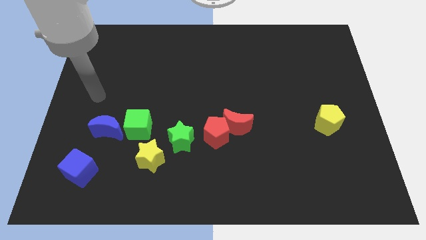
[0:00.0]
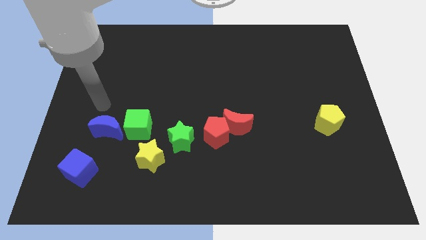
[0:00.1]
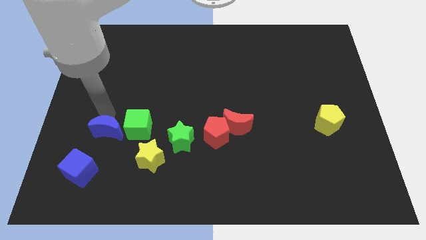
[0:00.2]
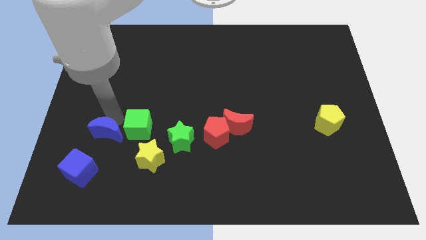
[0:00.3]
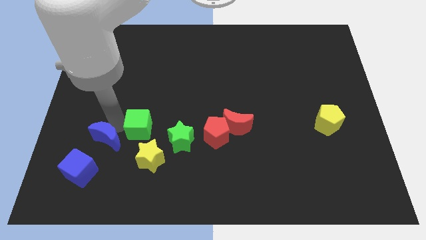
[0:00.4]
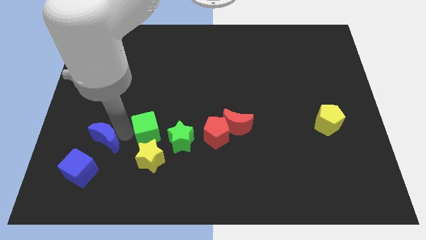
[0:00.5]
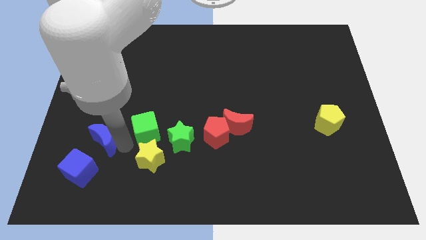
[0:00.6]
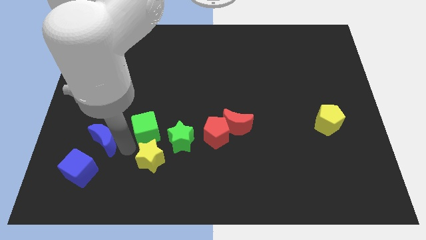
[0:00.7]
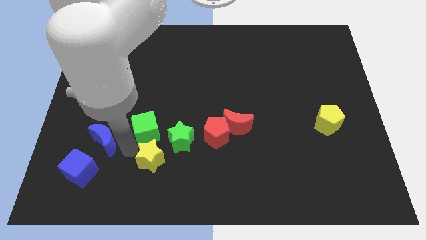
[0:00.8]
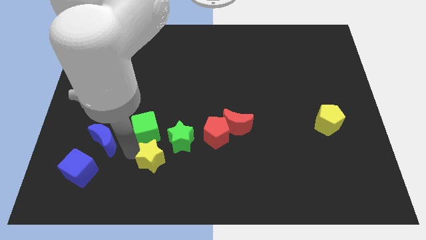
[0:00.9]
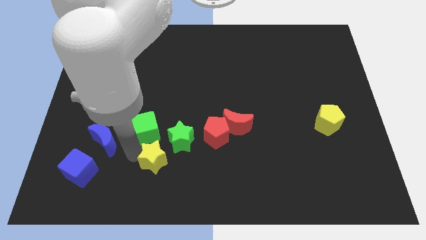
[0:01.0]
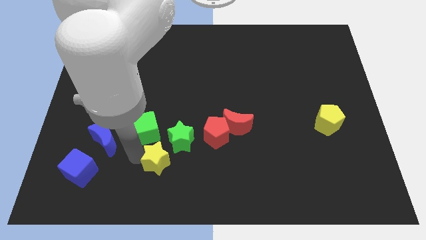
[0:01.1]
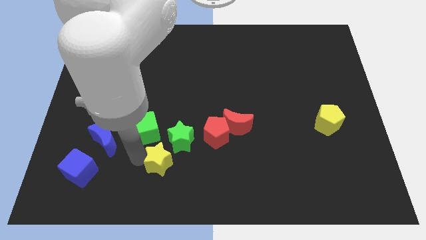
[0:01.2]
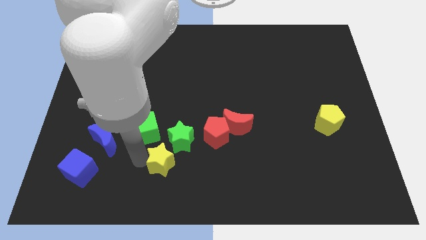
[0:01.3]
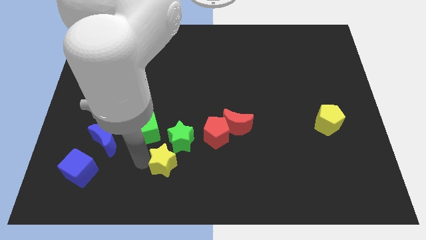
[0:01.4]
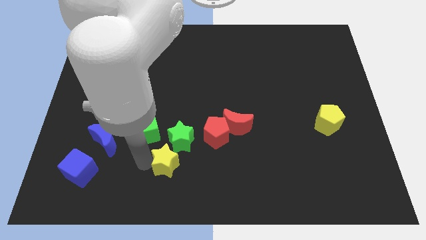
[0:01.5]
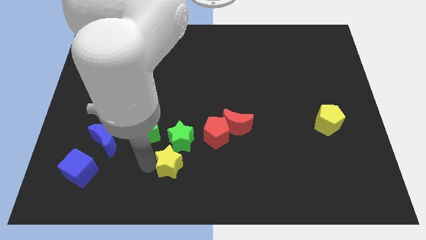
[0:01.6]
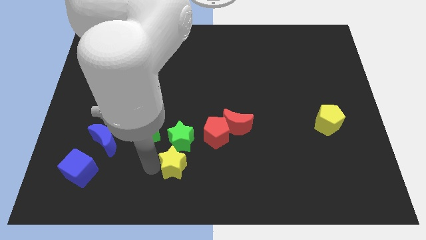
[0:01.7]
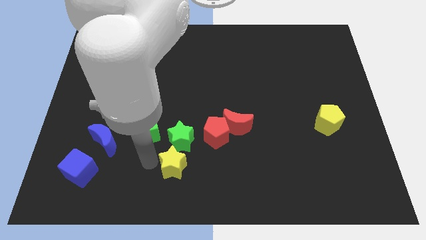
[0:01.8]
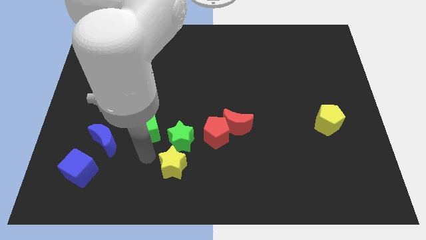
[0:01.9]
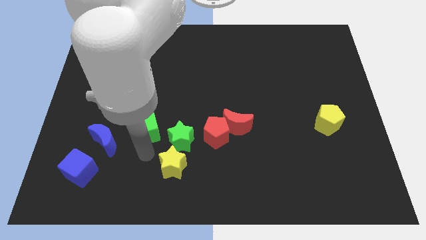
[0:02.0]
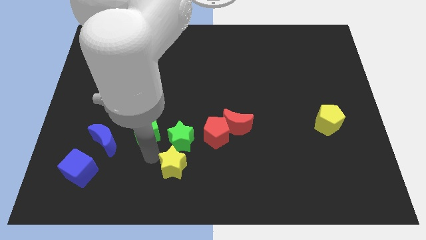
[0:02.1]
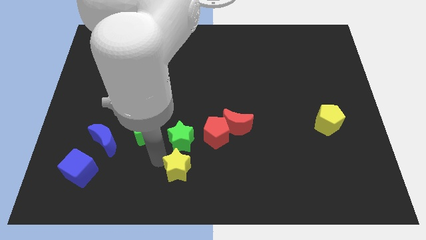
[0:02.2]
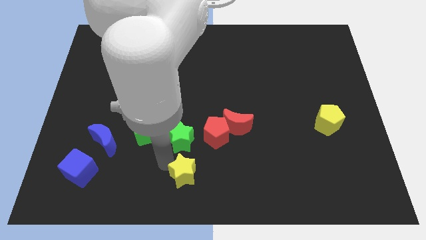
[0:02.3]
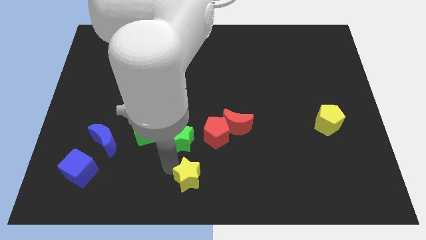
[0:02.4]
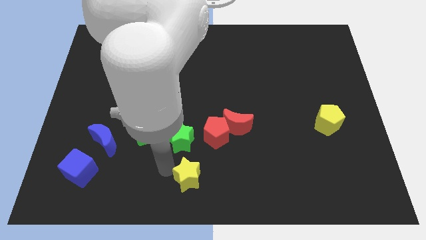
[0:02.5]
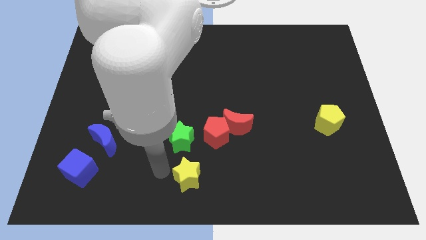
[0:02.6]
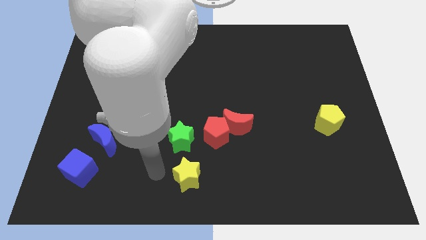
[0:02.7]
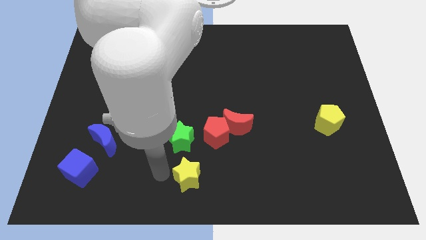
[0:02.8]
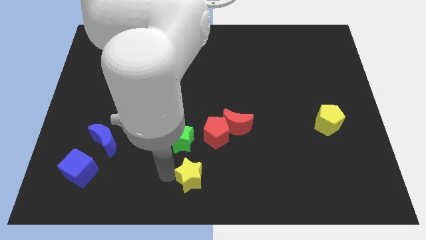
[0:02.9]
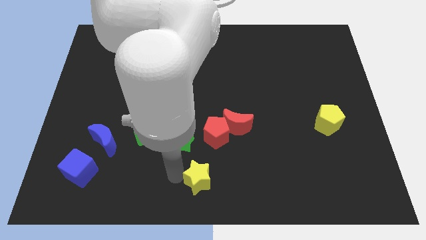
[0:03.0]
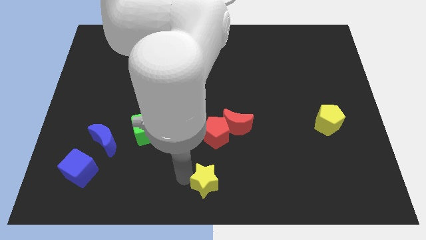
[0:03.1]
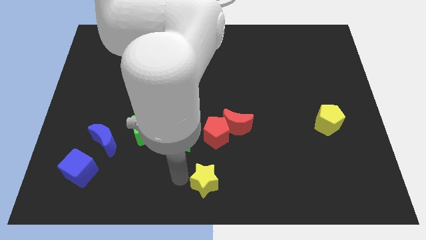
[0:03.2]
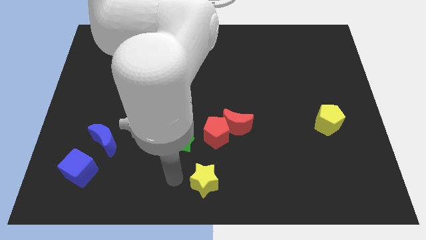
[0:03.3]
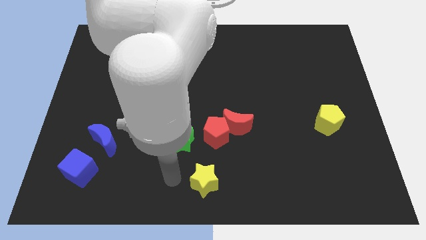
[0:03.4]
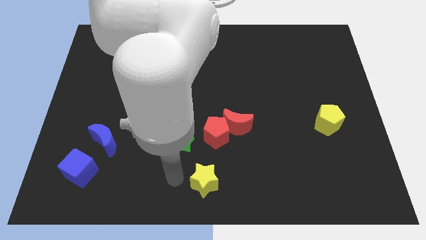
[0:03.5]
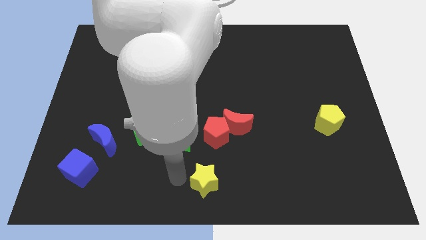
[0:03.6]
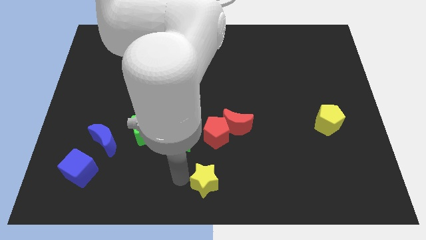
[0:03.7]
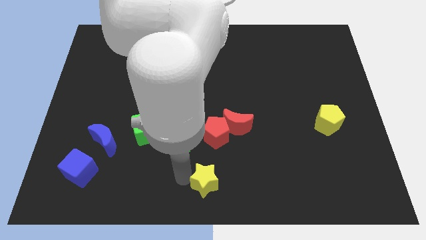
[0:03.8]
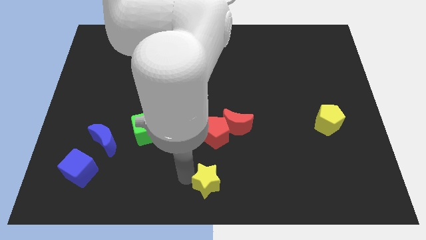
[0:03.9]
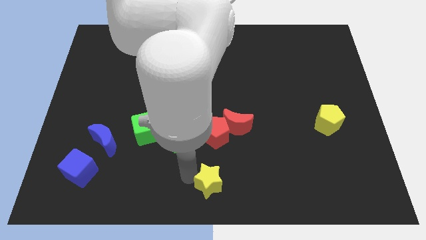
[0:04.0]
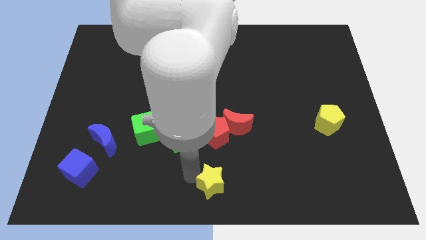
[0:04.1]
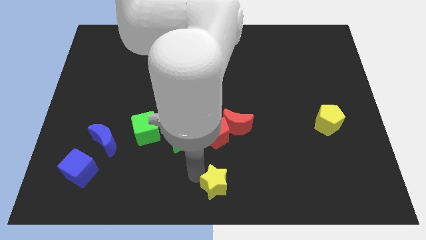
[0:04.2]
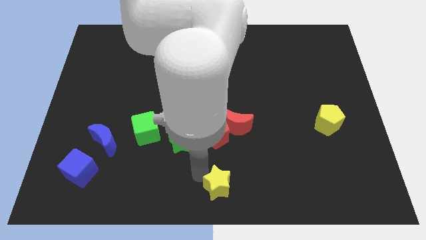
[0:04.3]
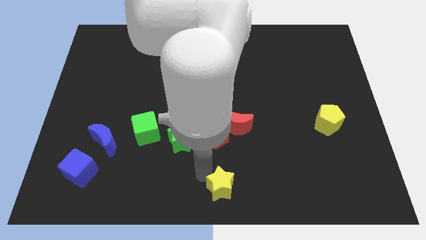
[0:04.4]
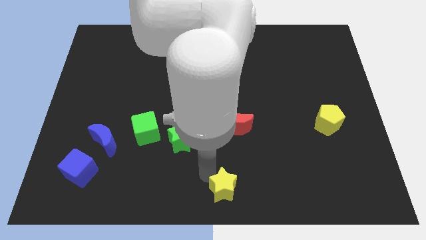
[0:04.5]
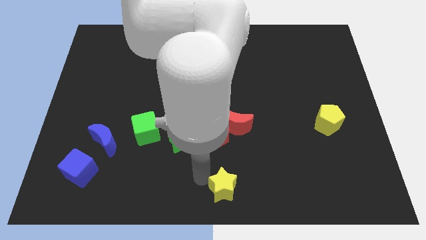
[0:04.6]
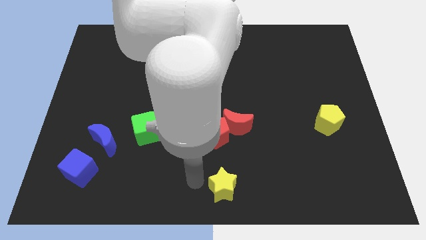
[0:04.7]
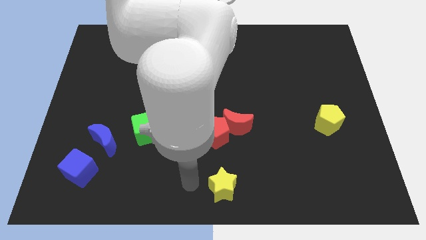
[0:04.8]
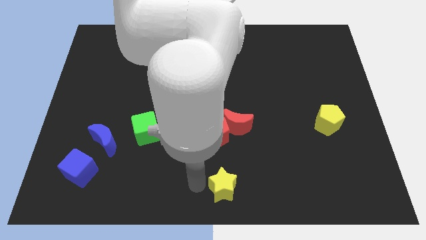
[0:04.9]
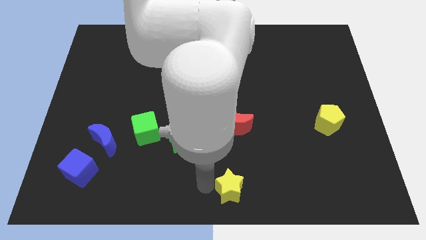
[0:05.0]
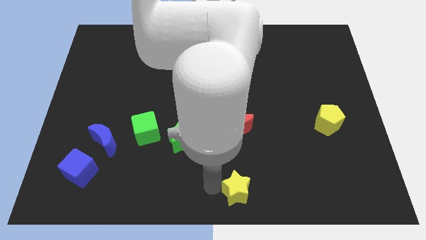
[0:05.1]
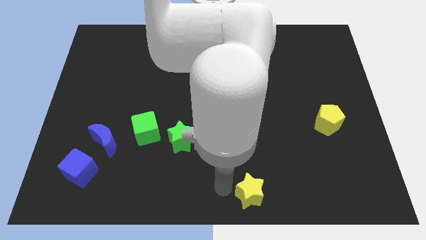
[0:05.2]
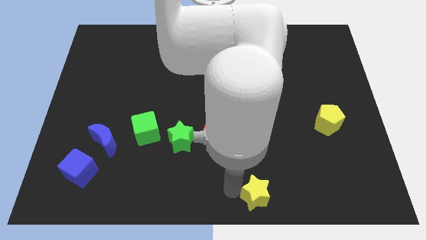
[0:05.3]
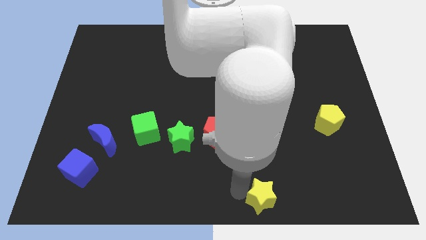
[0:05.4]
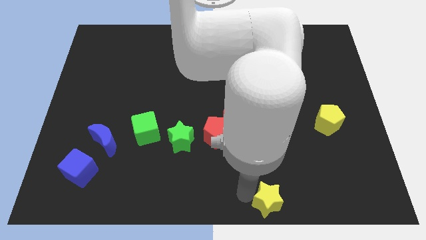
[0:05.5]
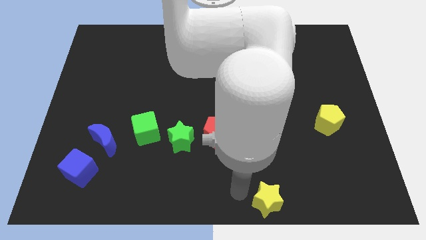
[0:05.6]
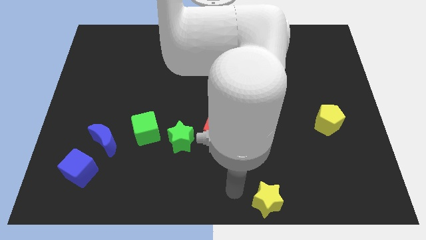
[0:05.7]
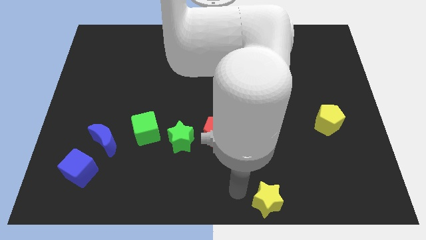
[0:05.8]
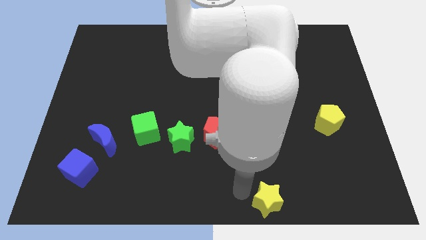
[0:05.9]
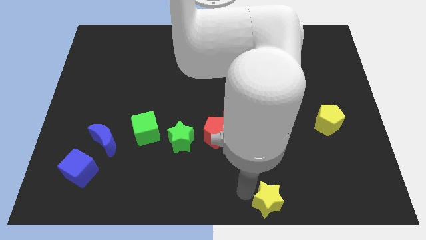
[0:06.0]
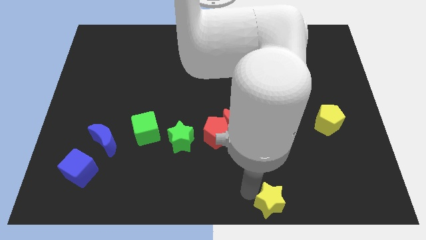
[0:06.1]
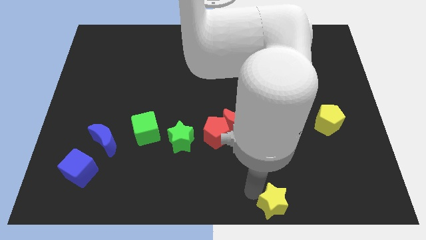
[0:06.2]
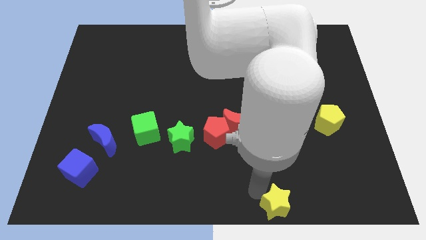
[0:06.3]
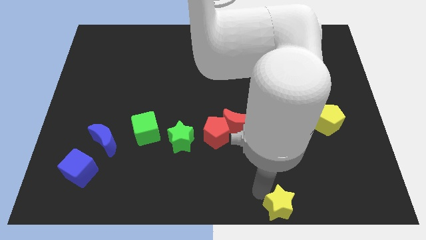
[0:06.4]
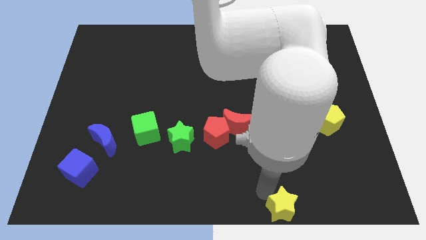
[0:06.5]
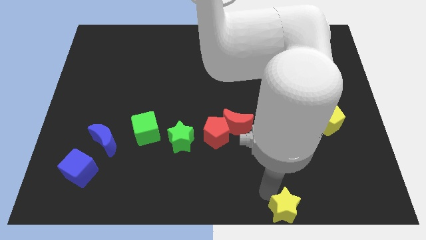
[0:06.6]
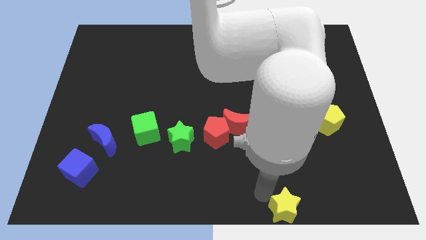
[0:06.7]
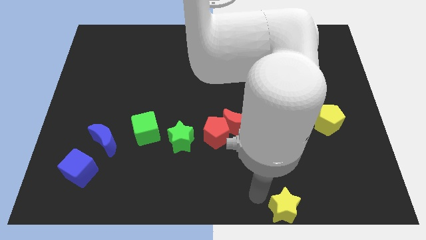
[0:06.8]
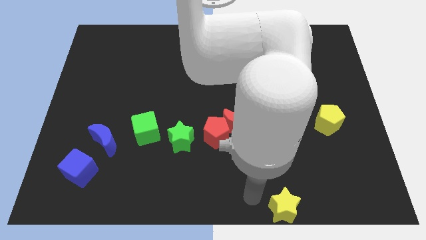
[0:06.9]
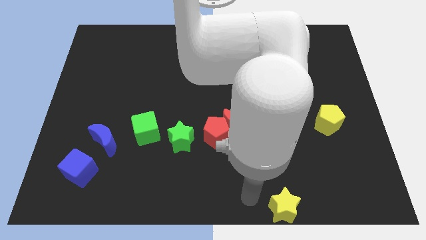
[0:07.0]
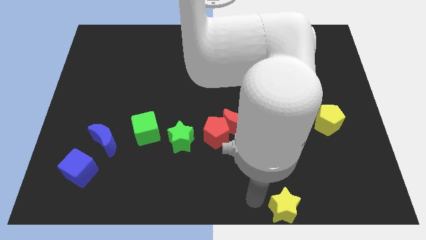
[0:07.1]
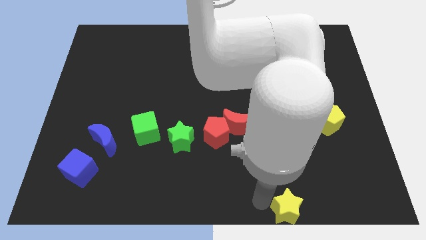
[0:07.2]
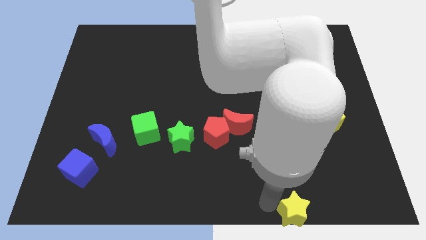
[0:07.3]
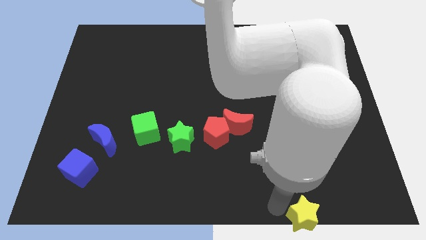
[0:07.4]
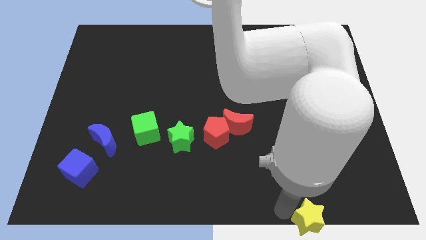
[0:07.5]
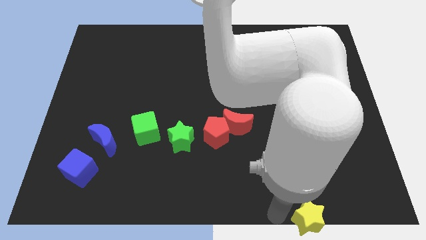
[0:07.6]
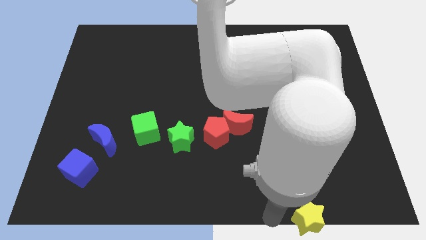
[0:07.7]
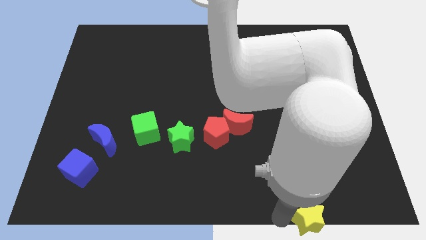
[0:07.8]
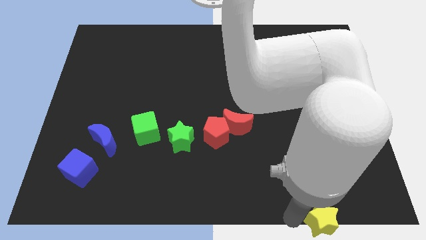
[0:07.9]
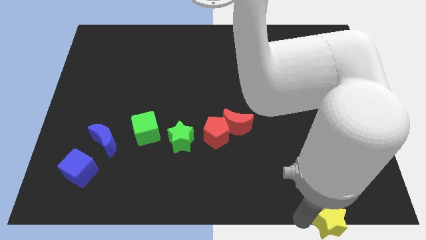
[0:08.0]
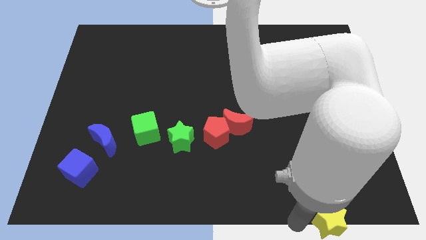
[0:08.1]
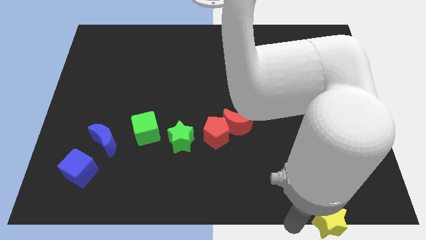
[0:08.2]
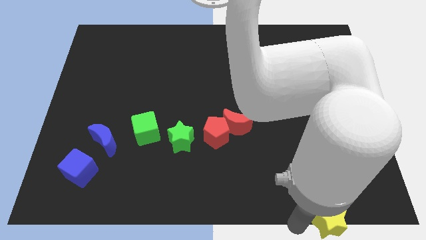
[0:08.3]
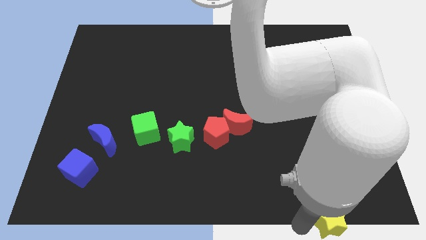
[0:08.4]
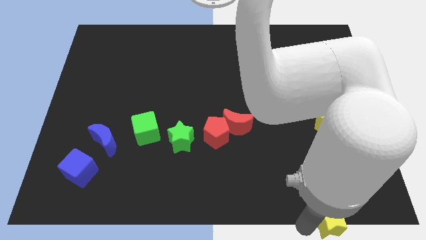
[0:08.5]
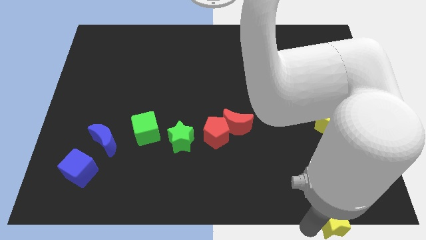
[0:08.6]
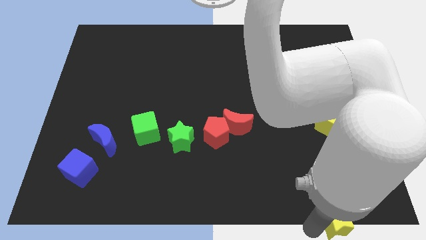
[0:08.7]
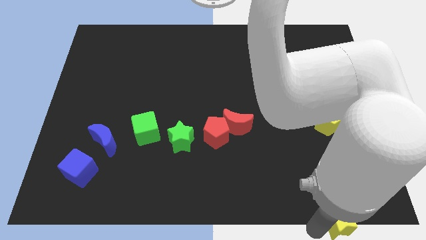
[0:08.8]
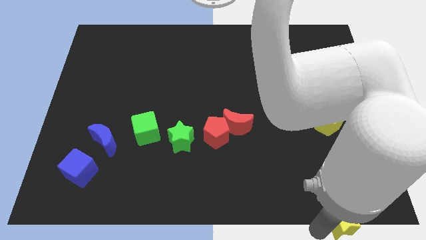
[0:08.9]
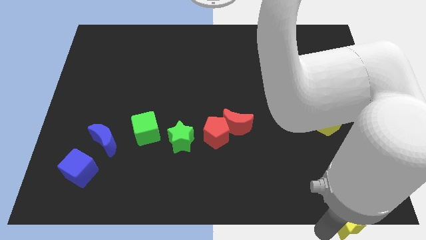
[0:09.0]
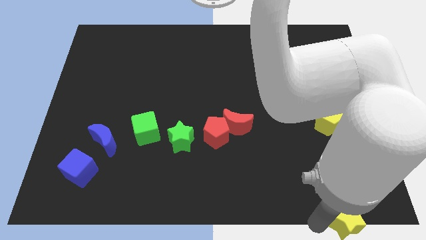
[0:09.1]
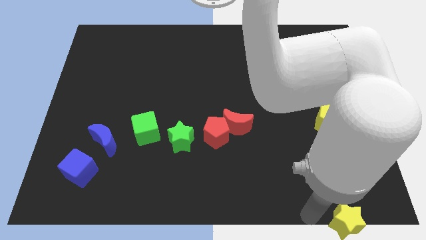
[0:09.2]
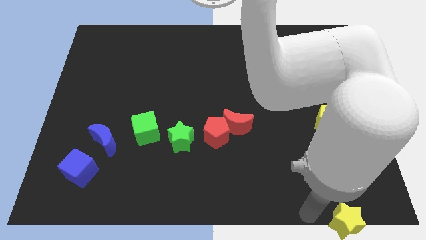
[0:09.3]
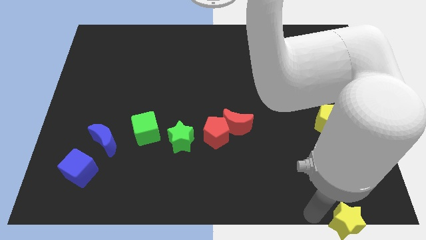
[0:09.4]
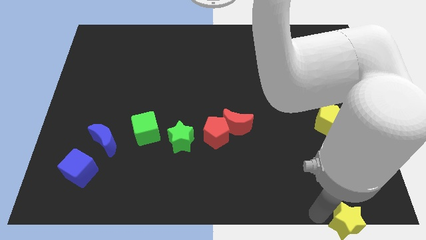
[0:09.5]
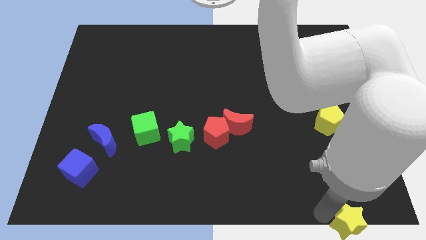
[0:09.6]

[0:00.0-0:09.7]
put the yellow star to the bottom right of the board
